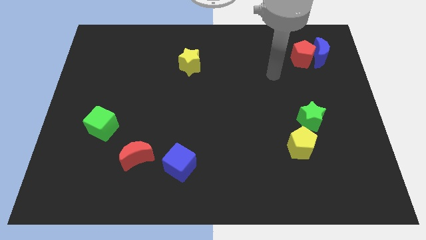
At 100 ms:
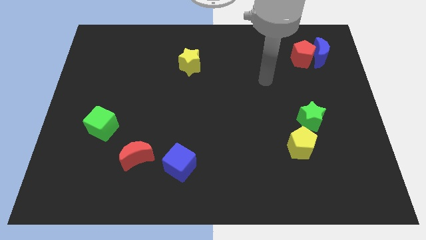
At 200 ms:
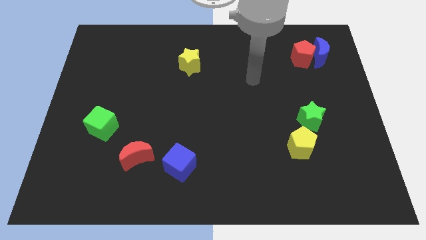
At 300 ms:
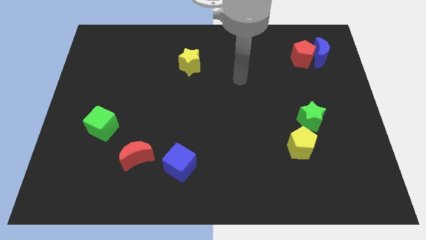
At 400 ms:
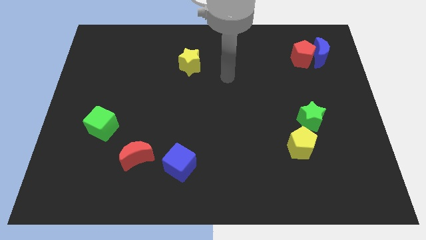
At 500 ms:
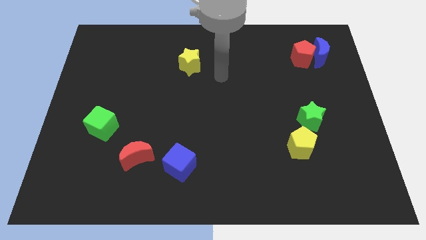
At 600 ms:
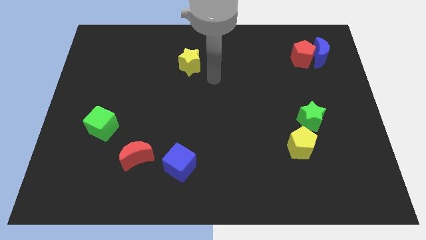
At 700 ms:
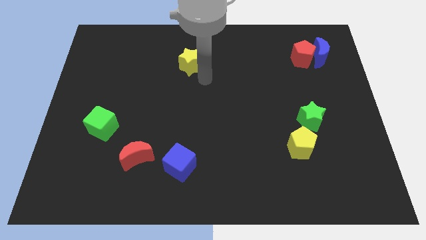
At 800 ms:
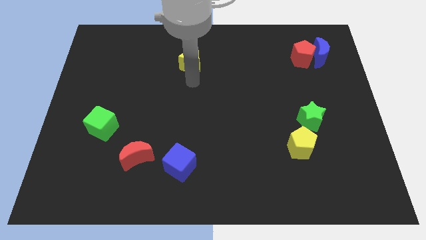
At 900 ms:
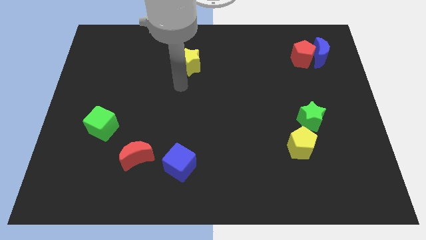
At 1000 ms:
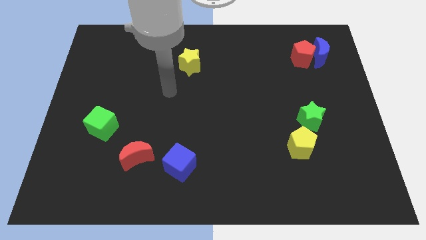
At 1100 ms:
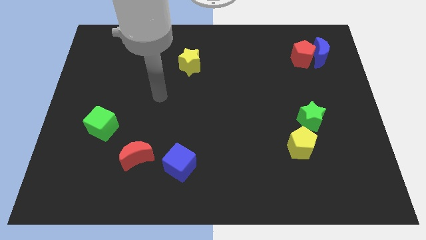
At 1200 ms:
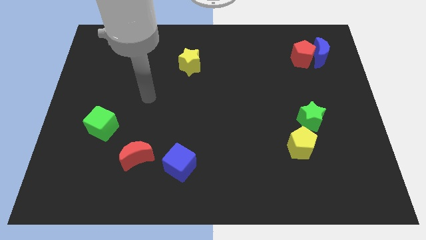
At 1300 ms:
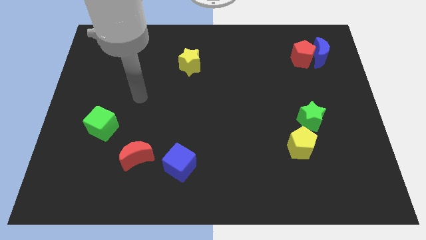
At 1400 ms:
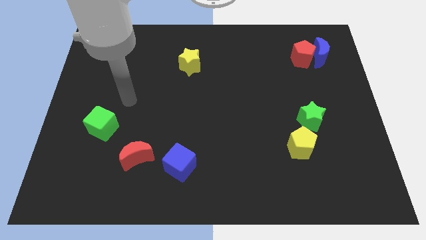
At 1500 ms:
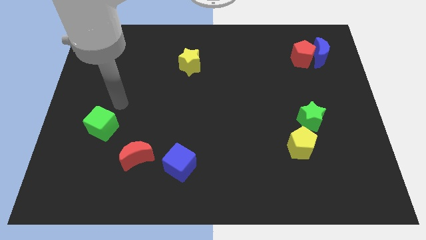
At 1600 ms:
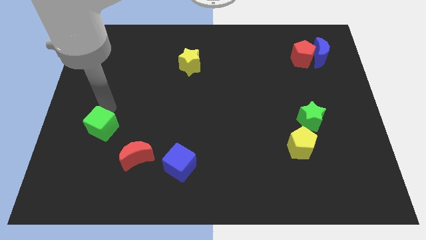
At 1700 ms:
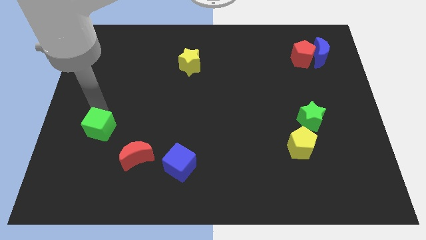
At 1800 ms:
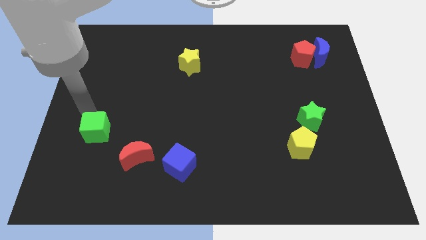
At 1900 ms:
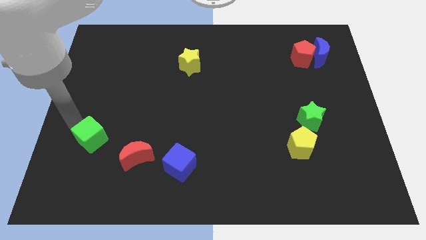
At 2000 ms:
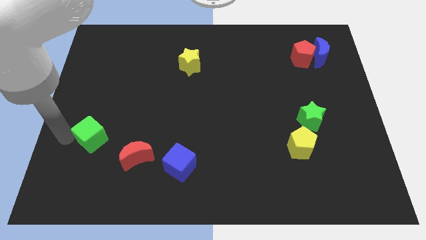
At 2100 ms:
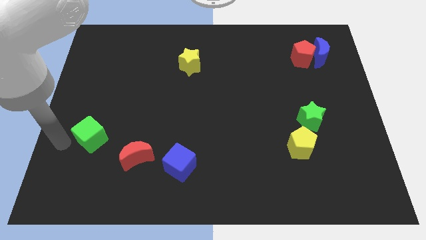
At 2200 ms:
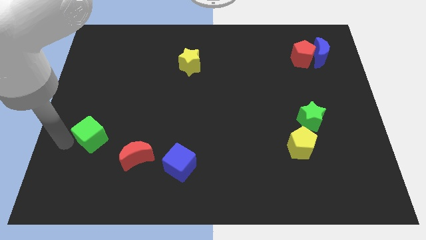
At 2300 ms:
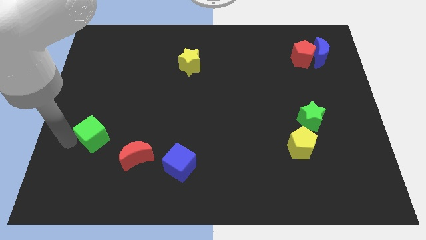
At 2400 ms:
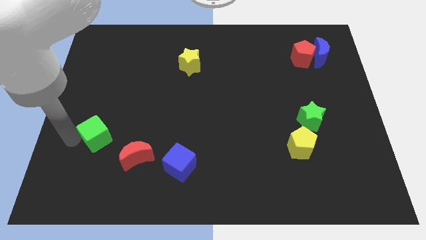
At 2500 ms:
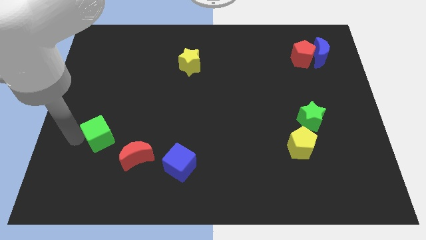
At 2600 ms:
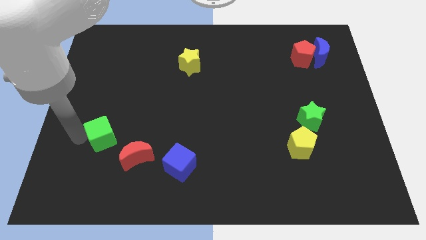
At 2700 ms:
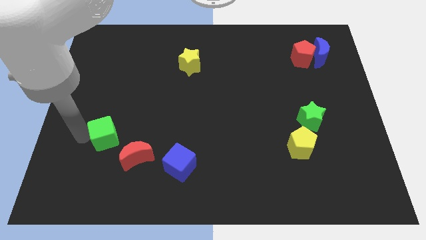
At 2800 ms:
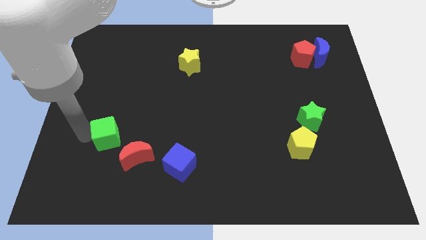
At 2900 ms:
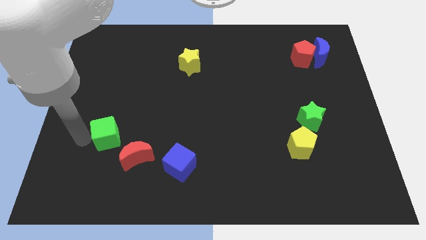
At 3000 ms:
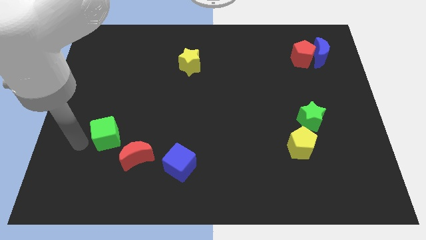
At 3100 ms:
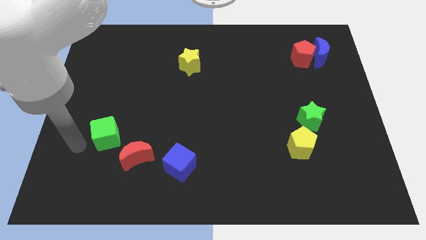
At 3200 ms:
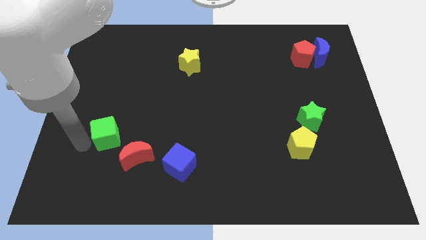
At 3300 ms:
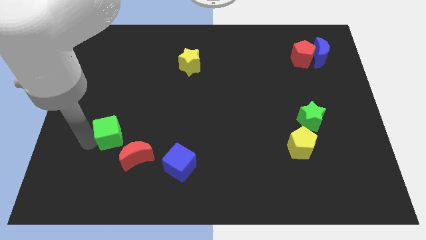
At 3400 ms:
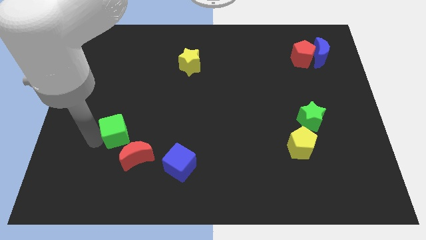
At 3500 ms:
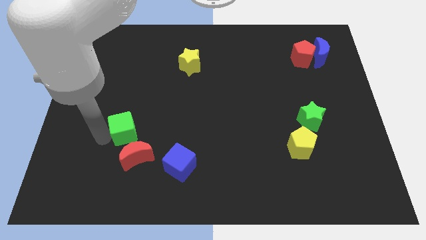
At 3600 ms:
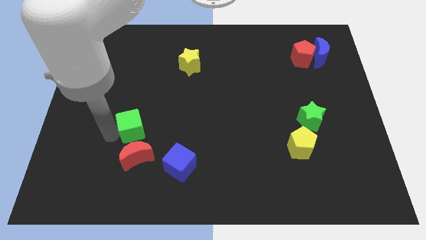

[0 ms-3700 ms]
slightly push the green cube to the right

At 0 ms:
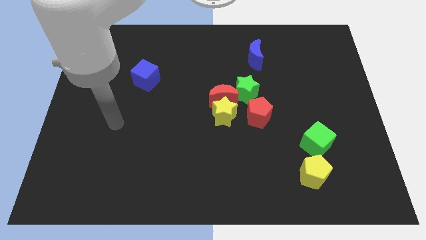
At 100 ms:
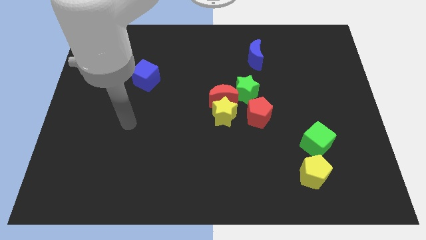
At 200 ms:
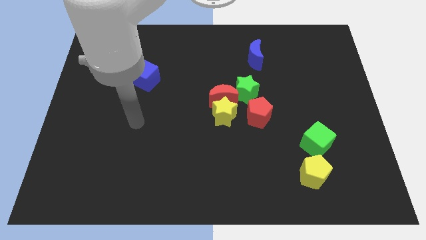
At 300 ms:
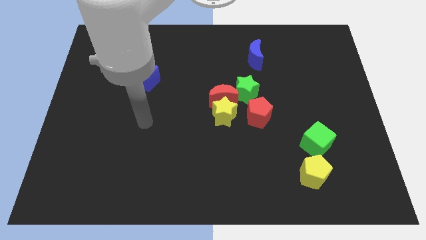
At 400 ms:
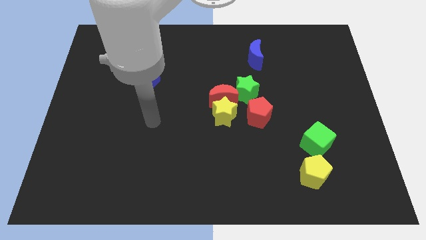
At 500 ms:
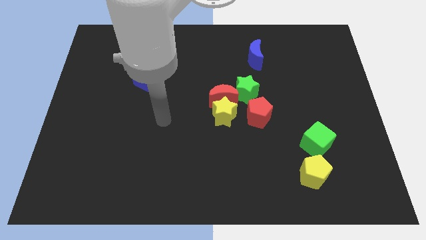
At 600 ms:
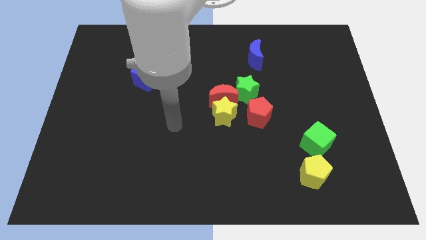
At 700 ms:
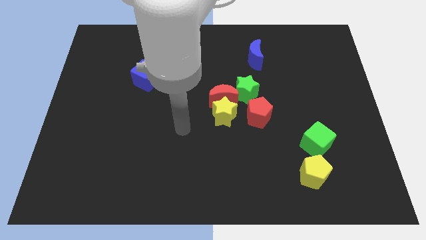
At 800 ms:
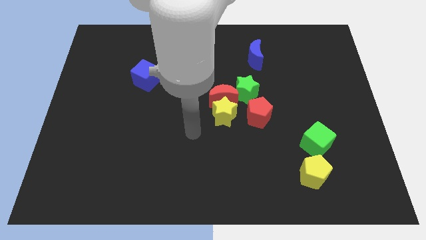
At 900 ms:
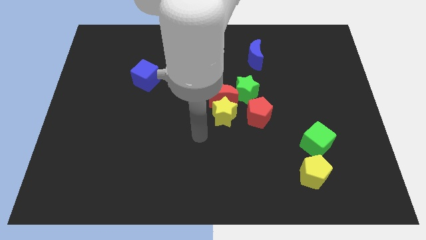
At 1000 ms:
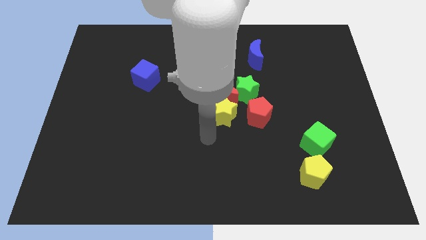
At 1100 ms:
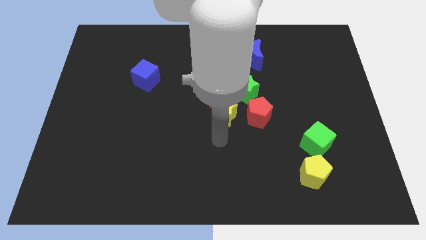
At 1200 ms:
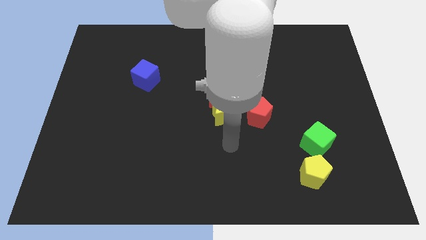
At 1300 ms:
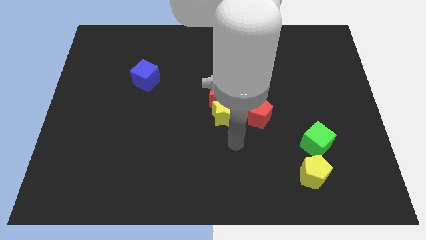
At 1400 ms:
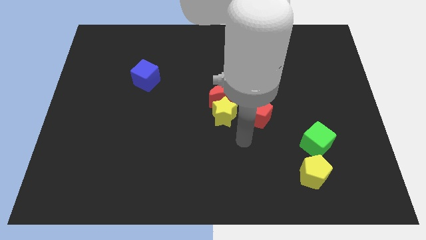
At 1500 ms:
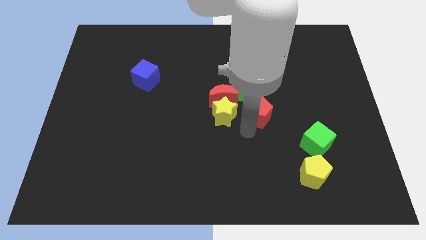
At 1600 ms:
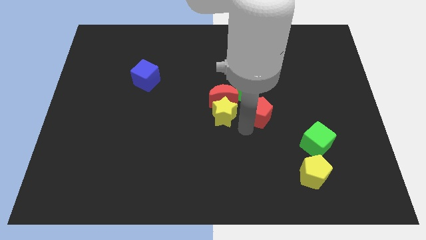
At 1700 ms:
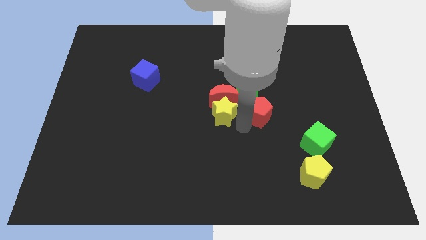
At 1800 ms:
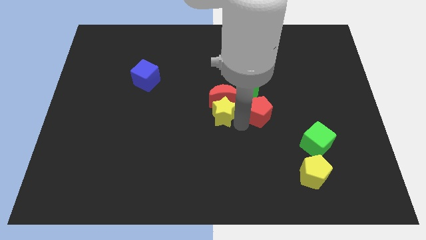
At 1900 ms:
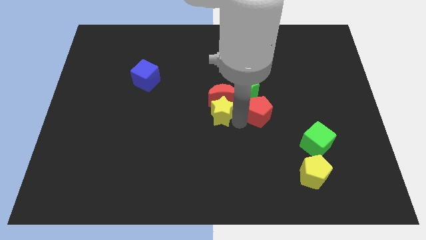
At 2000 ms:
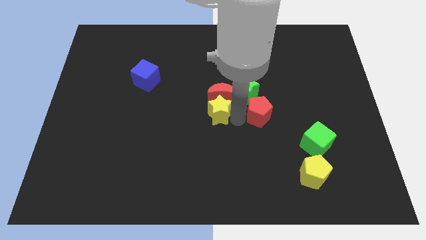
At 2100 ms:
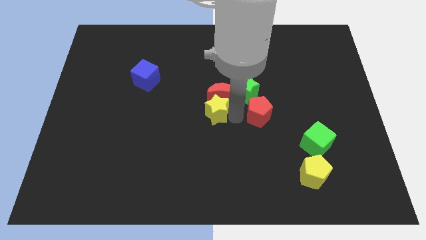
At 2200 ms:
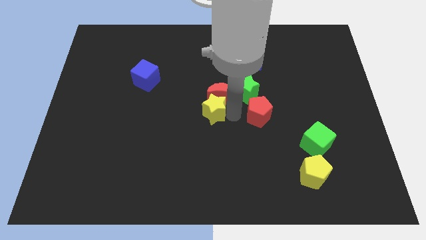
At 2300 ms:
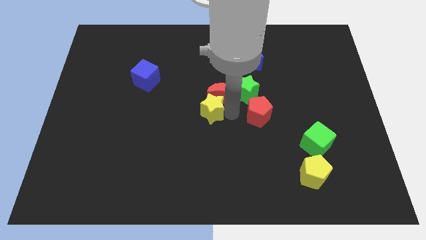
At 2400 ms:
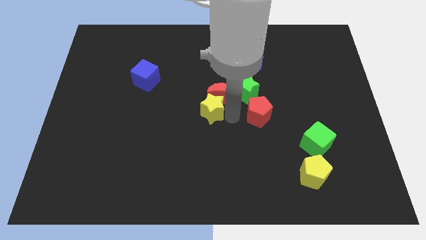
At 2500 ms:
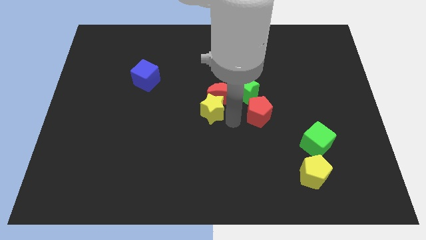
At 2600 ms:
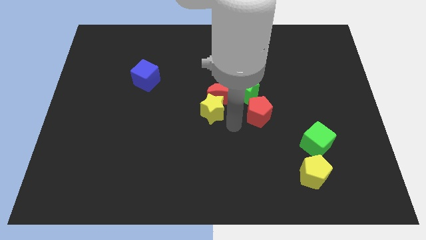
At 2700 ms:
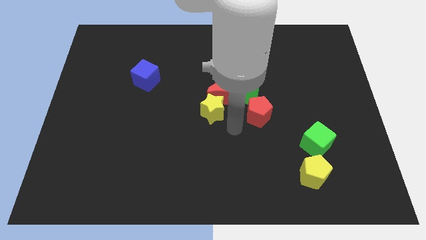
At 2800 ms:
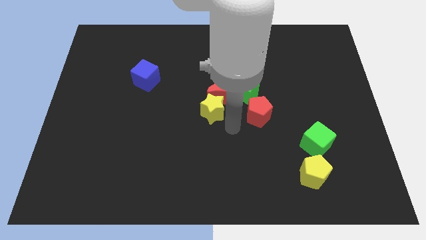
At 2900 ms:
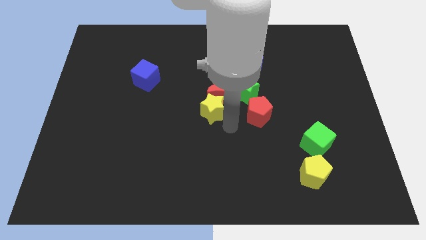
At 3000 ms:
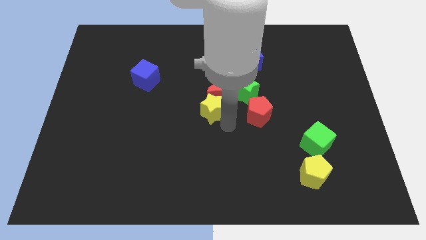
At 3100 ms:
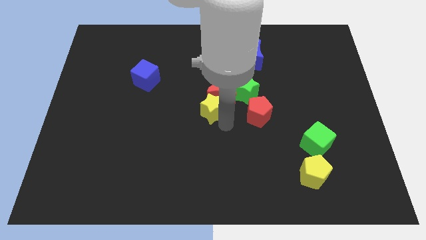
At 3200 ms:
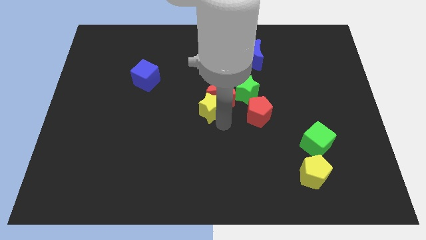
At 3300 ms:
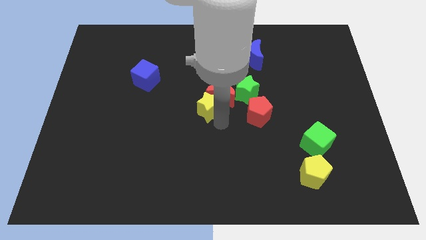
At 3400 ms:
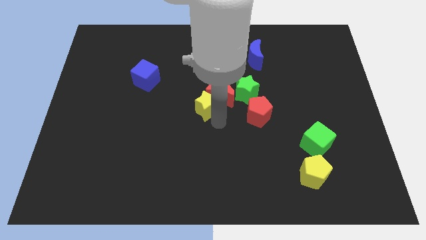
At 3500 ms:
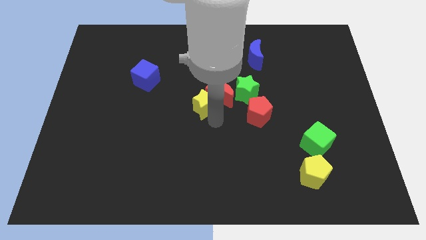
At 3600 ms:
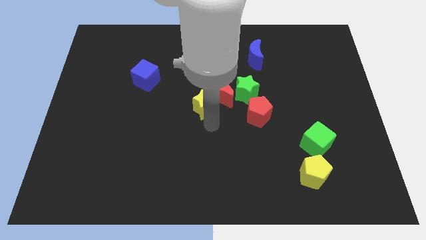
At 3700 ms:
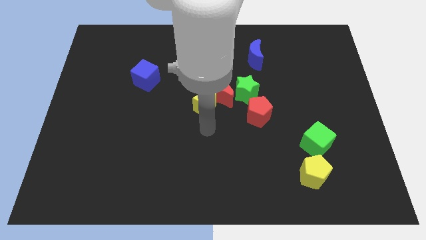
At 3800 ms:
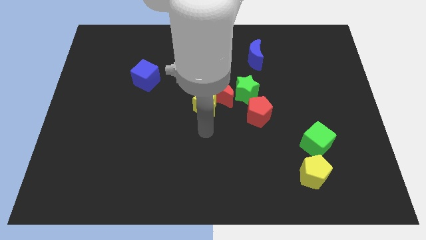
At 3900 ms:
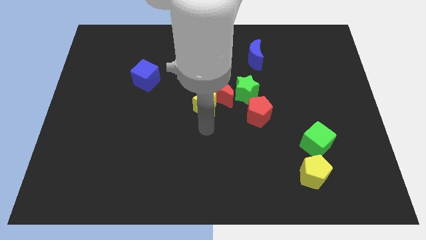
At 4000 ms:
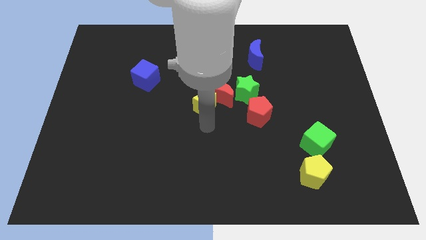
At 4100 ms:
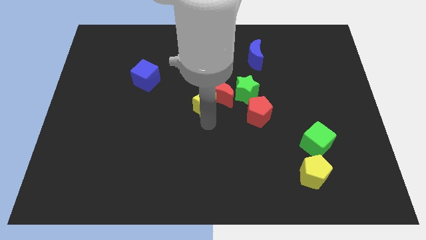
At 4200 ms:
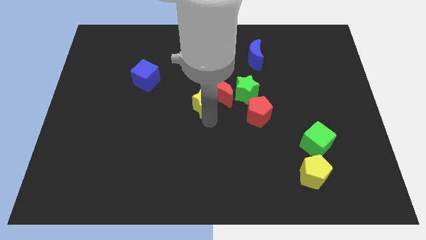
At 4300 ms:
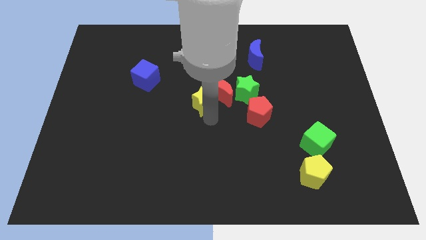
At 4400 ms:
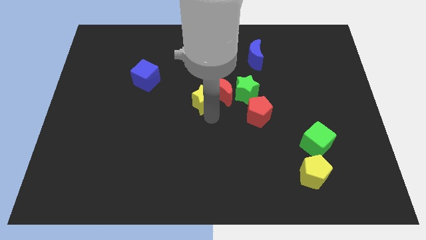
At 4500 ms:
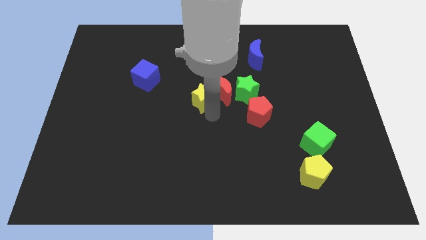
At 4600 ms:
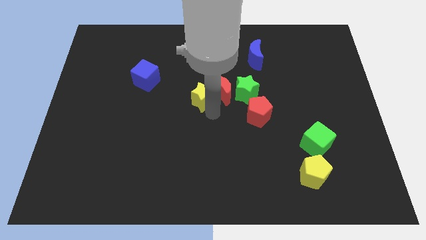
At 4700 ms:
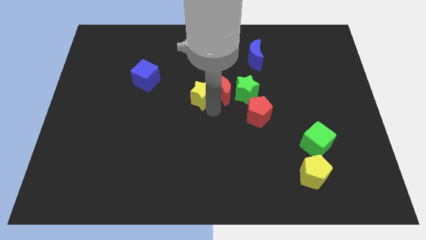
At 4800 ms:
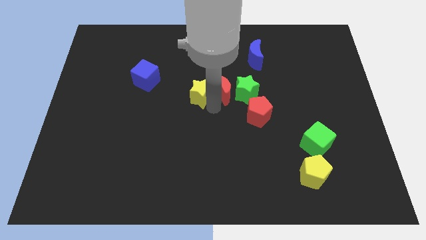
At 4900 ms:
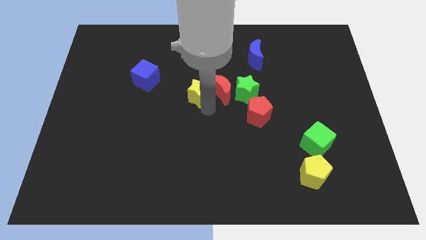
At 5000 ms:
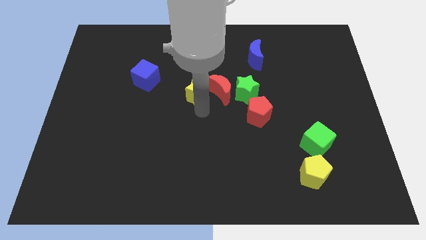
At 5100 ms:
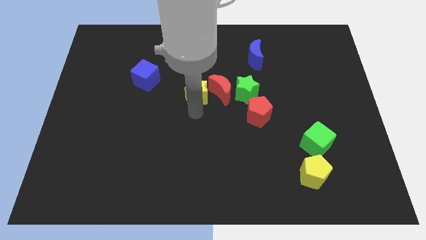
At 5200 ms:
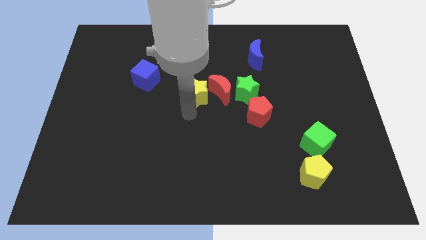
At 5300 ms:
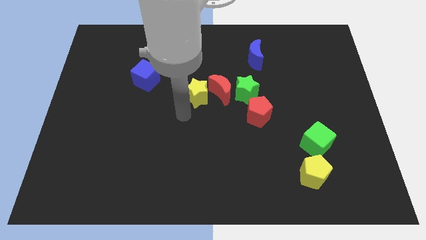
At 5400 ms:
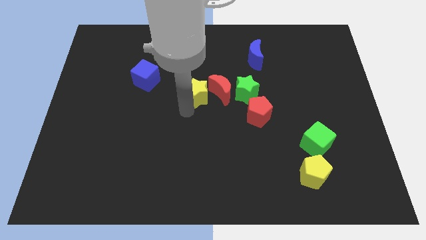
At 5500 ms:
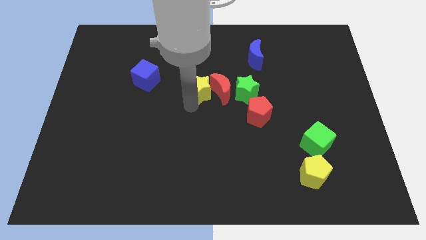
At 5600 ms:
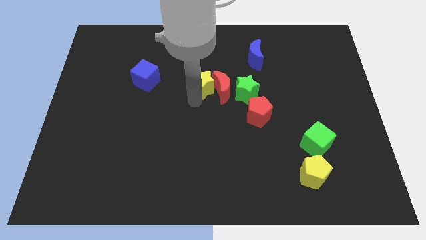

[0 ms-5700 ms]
push the yellow star upwards slightly
